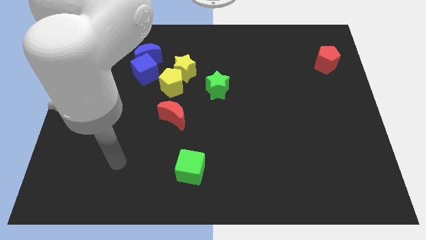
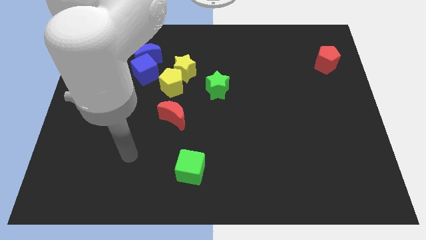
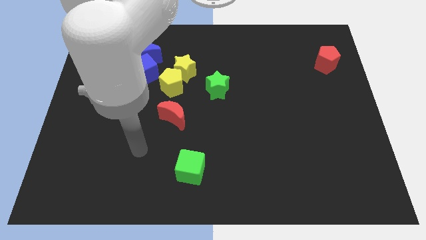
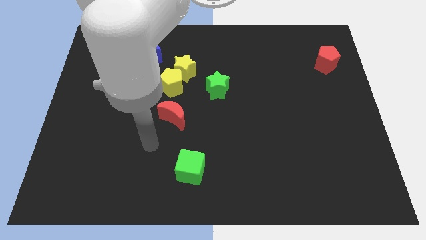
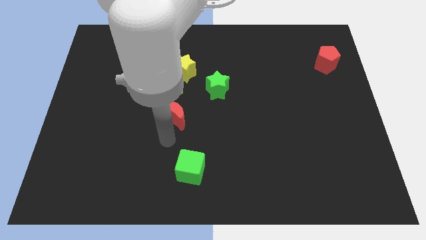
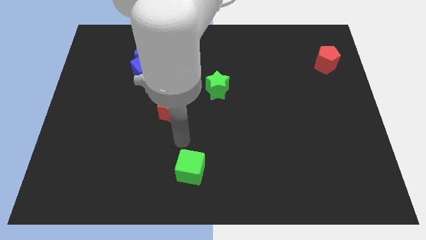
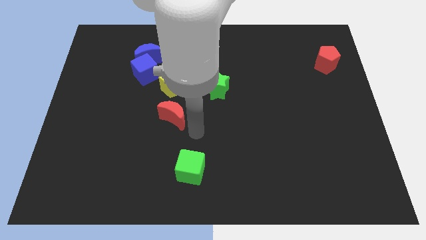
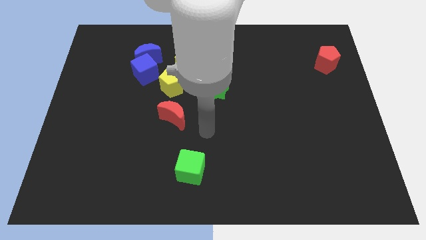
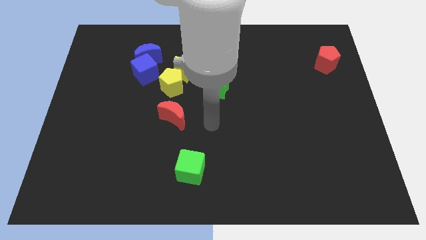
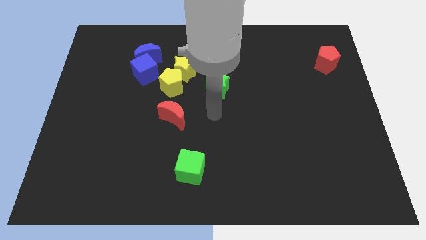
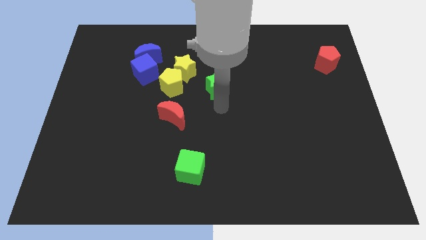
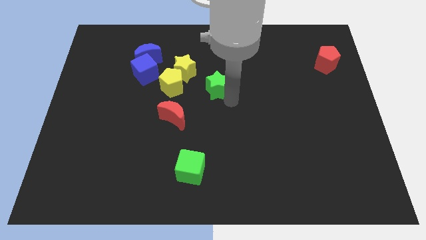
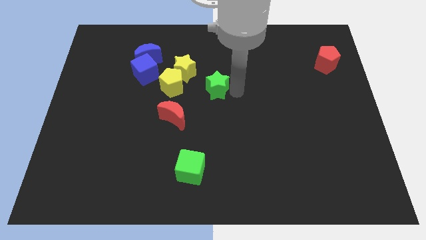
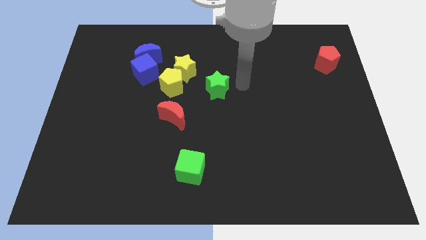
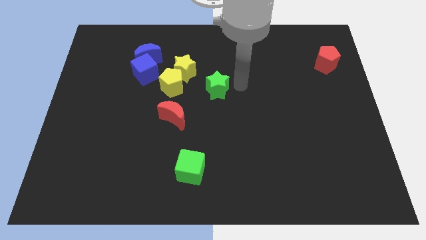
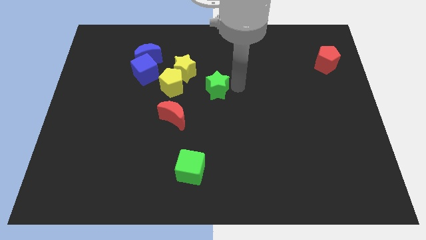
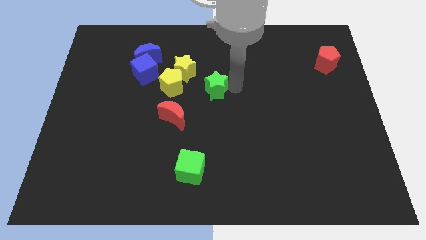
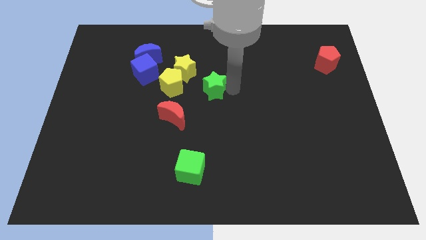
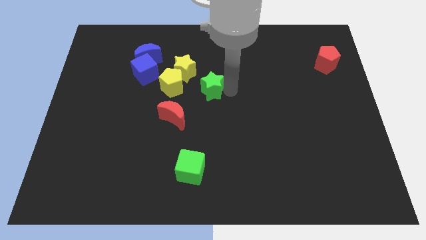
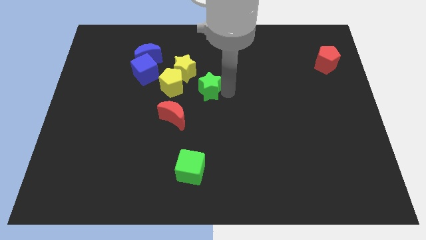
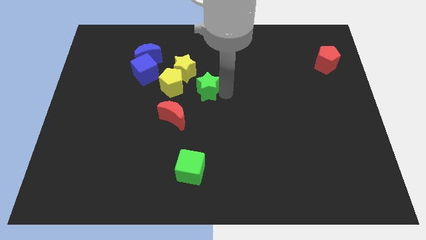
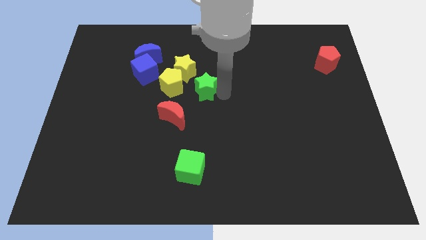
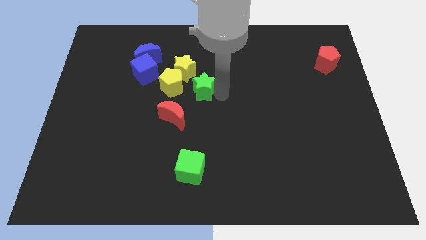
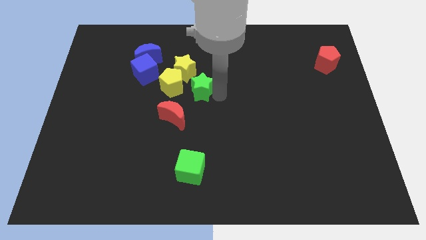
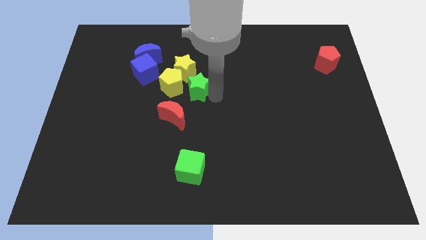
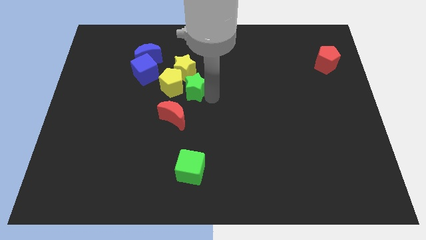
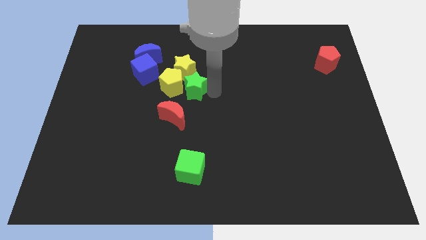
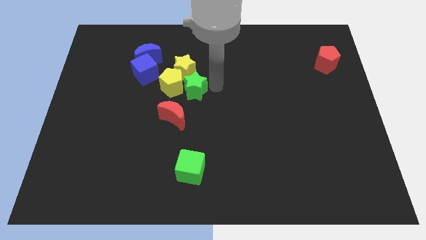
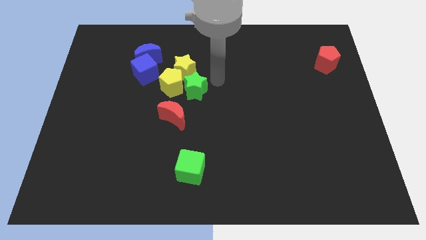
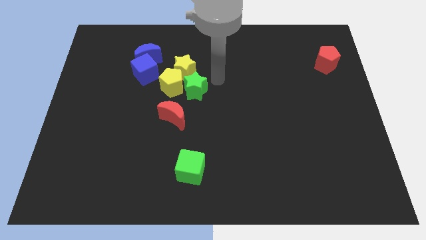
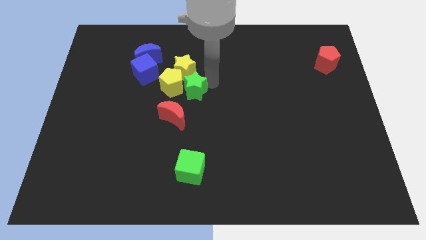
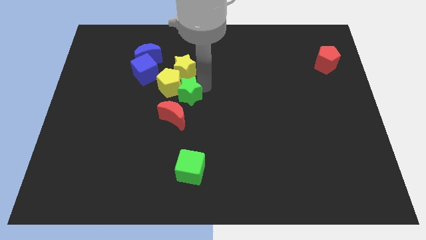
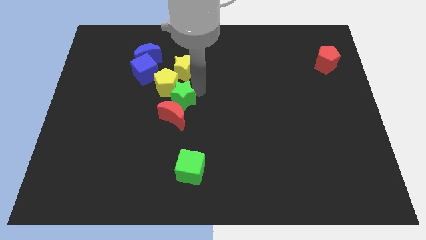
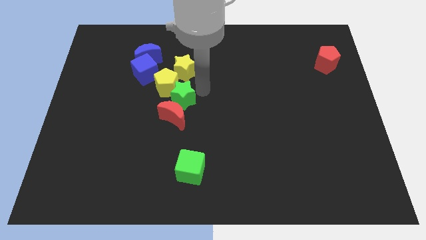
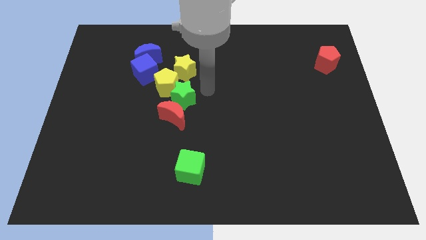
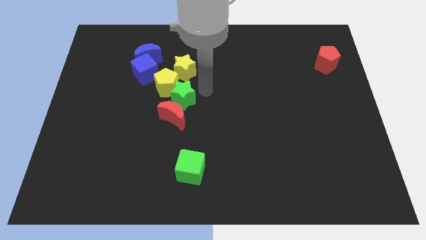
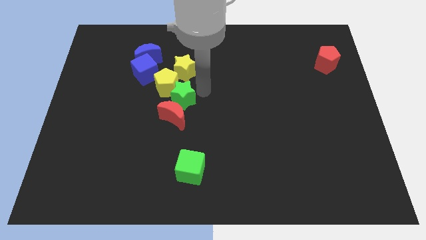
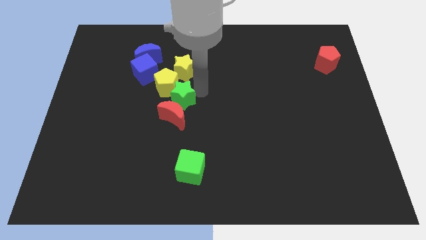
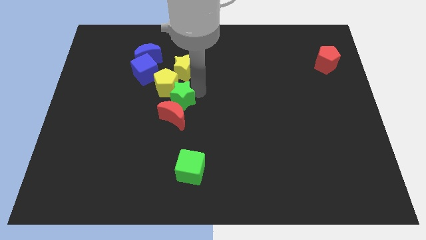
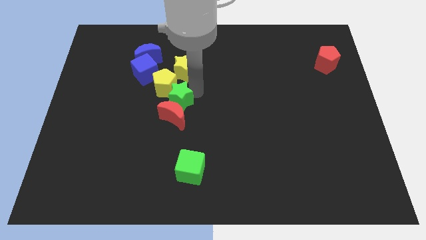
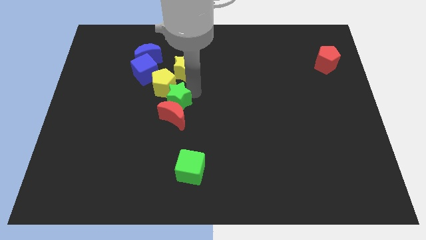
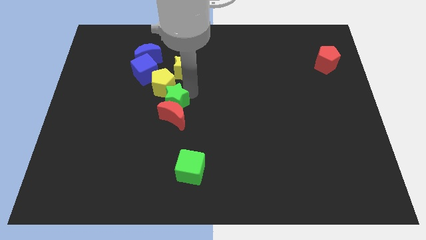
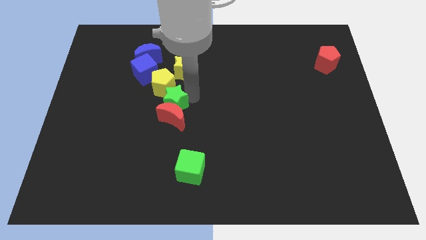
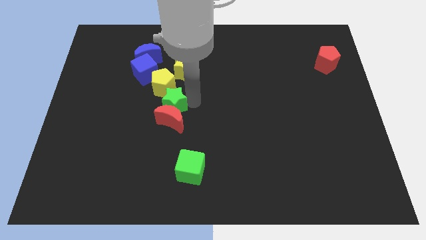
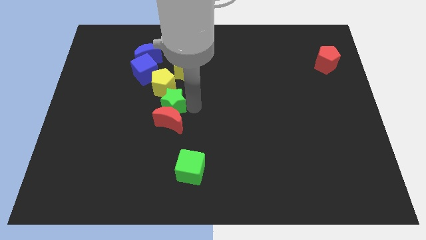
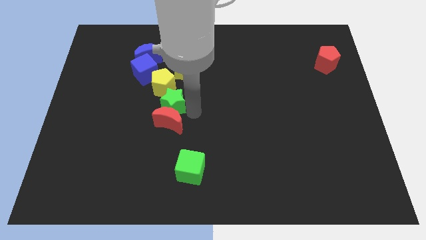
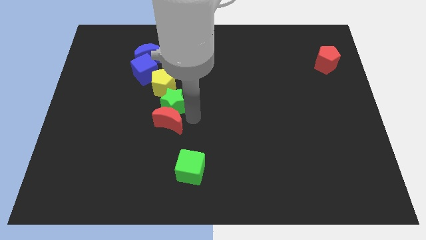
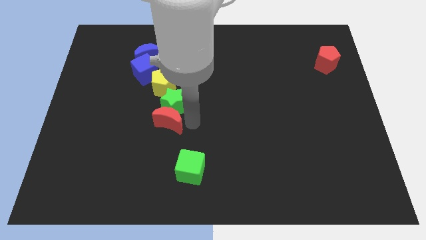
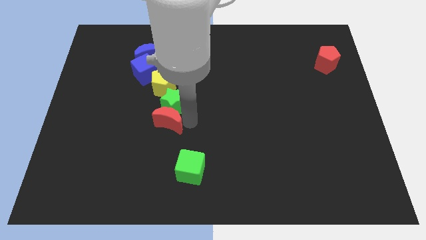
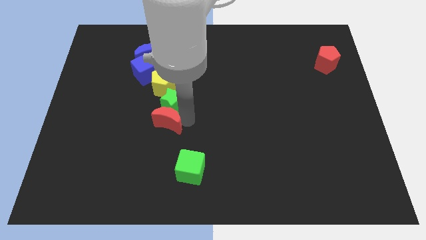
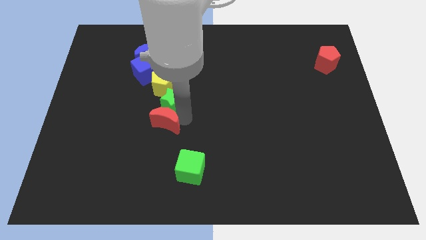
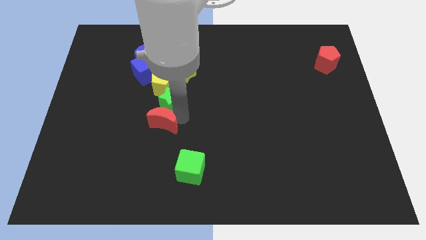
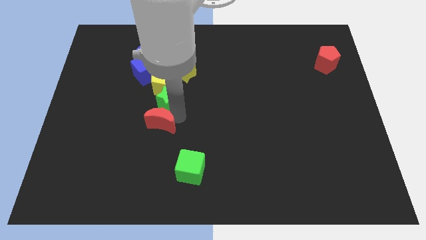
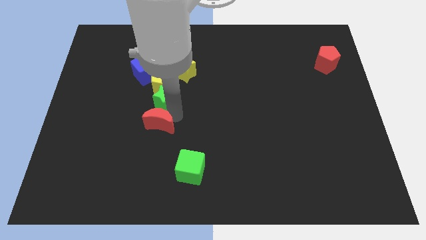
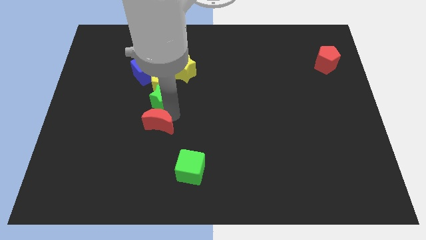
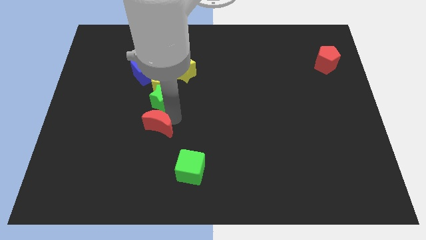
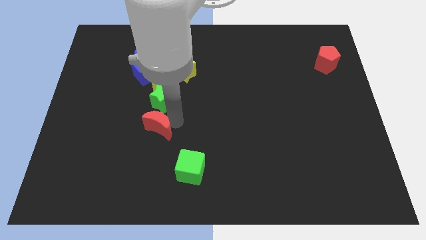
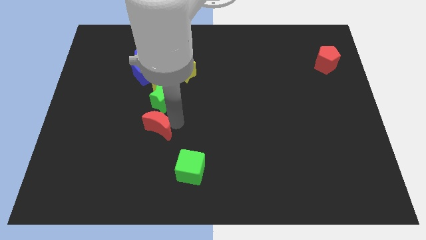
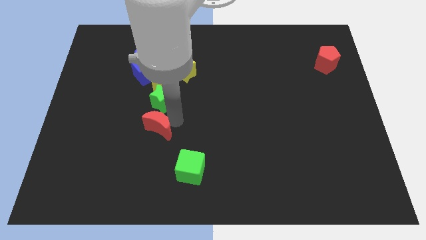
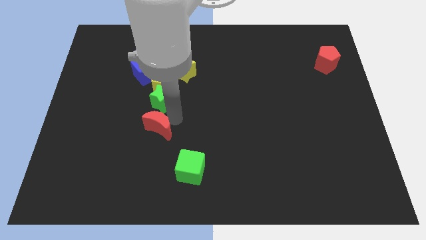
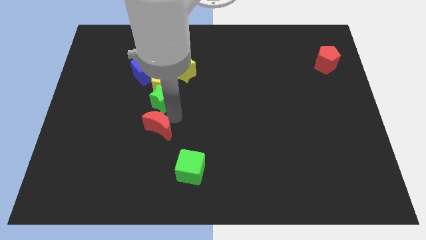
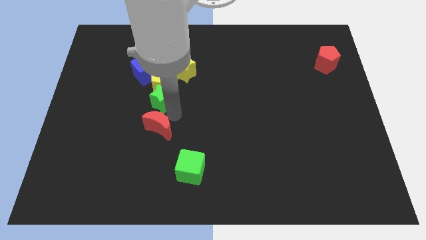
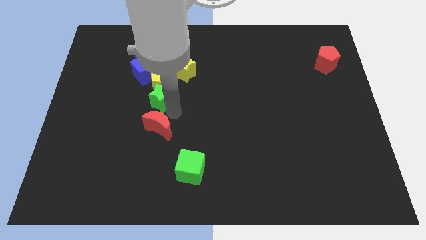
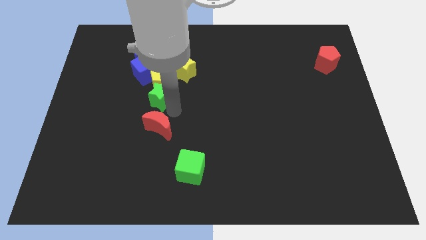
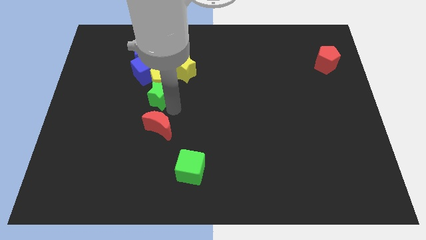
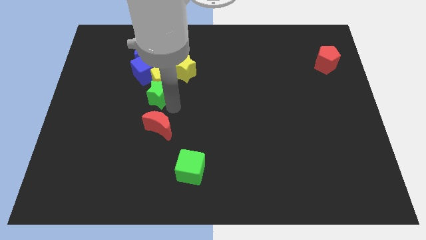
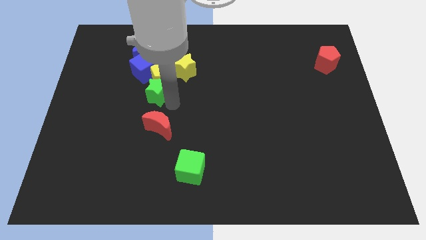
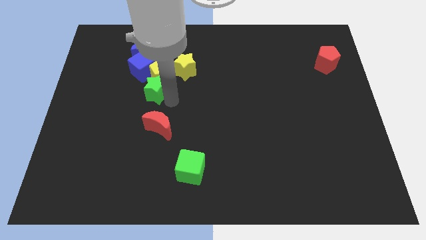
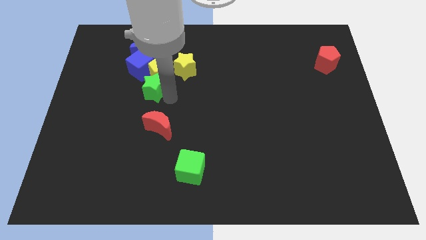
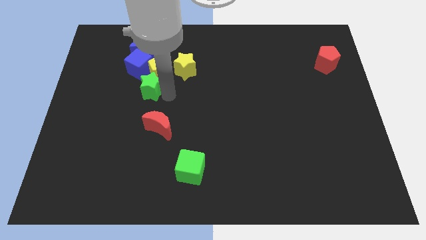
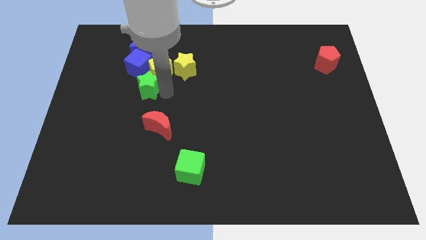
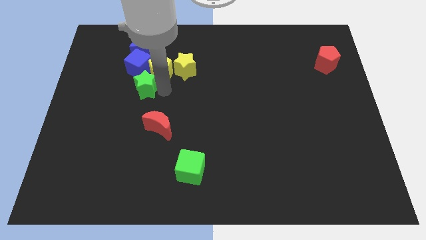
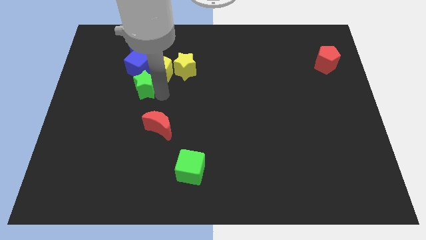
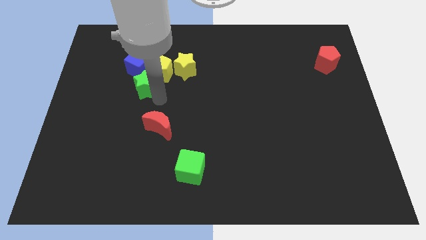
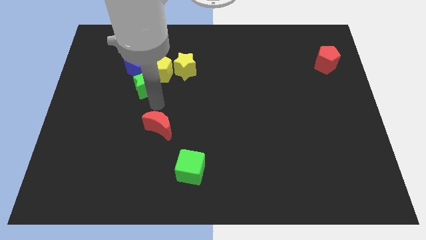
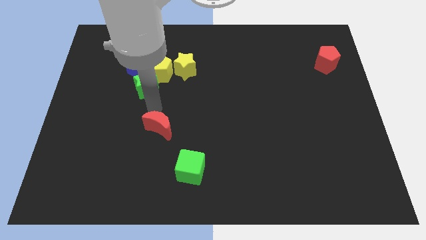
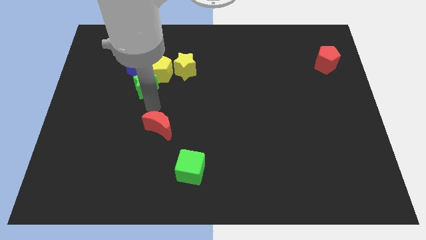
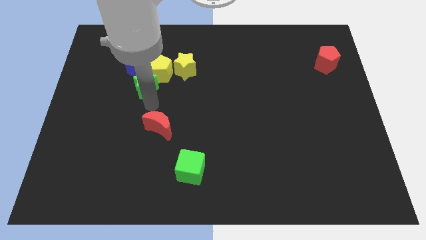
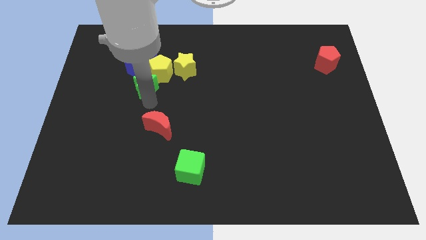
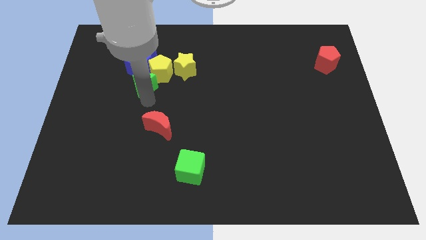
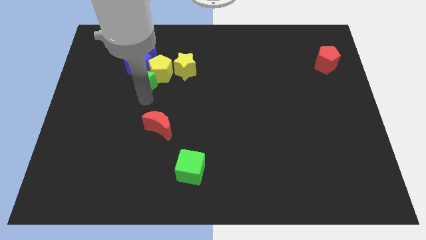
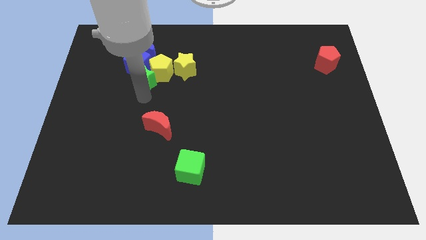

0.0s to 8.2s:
push the green star towards the blue cube
